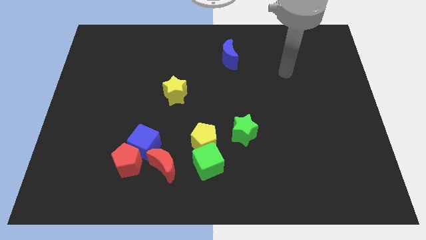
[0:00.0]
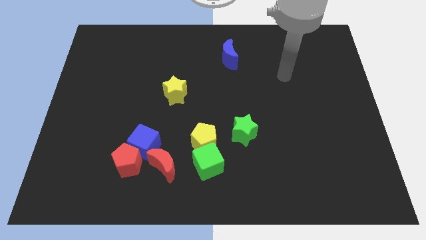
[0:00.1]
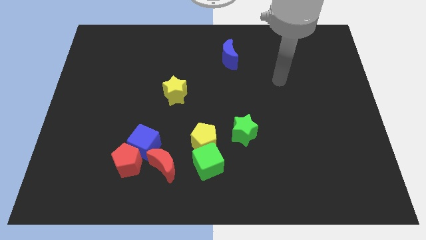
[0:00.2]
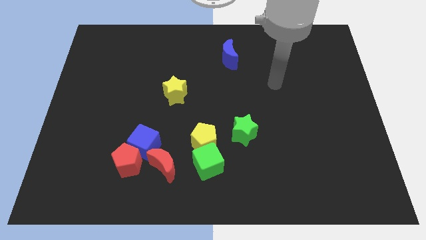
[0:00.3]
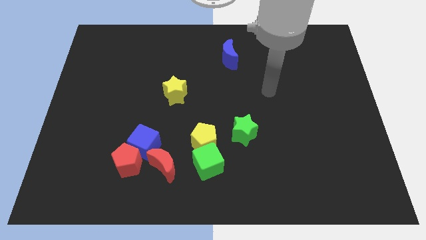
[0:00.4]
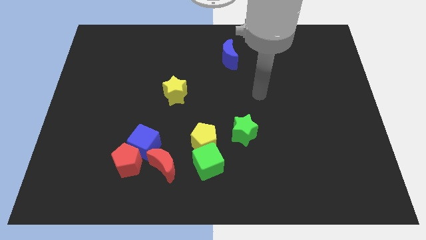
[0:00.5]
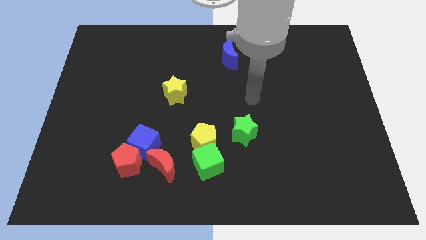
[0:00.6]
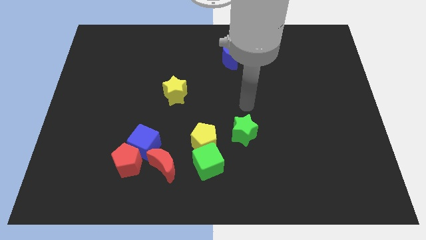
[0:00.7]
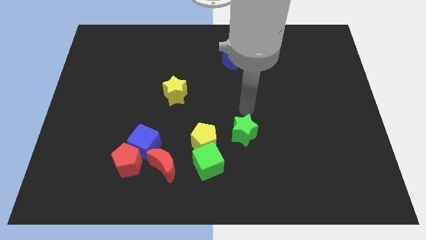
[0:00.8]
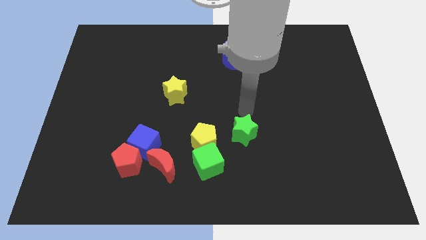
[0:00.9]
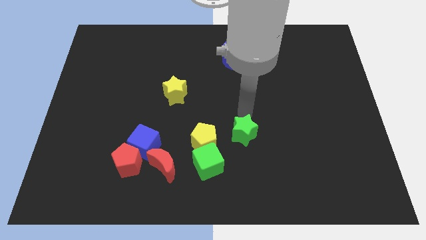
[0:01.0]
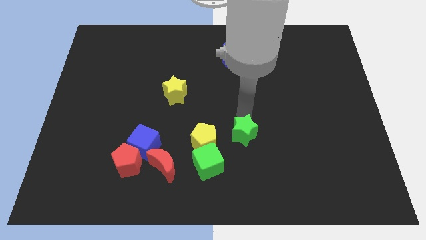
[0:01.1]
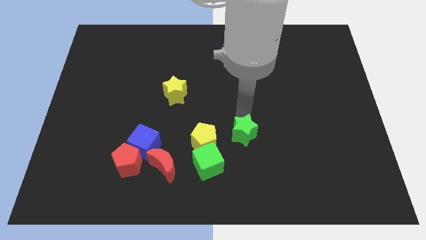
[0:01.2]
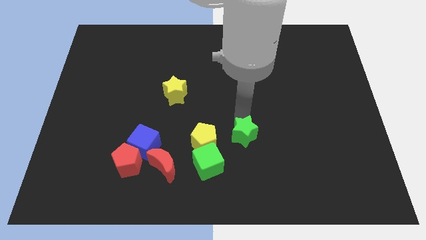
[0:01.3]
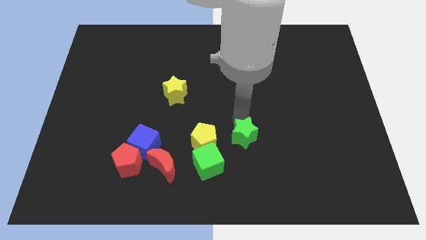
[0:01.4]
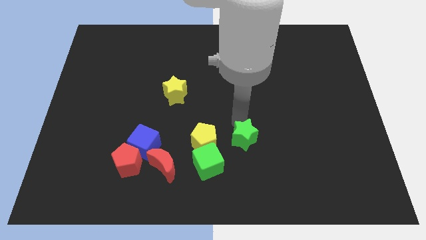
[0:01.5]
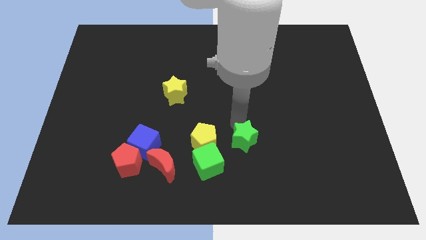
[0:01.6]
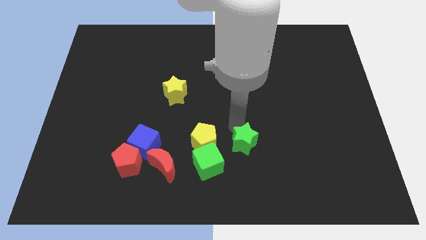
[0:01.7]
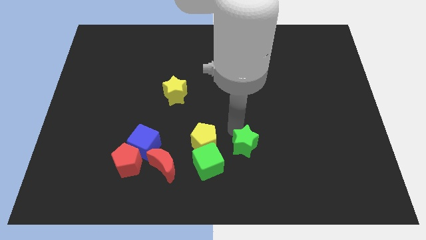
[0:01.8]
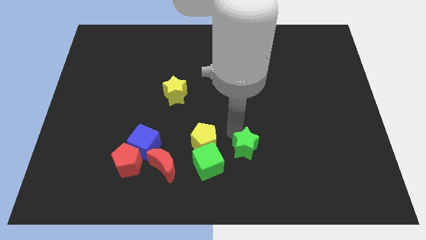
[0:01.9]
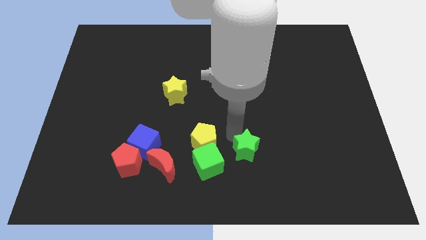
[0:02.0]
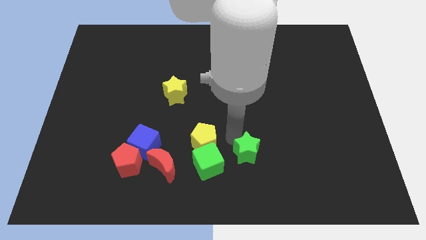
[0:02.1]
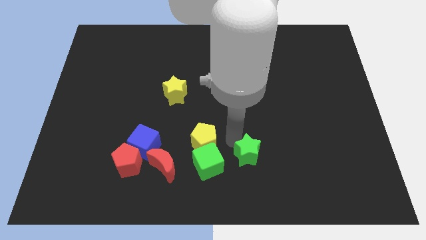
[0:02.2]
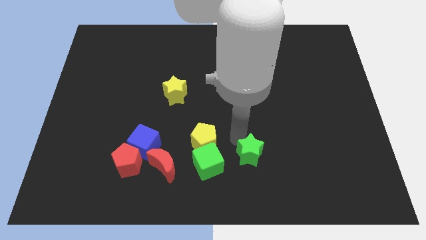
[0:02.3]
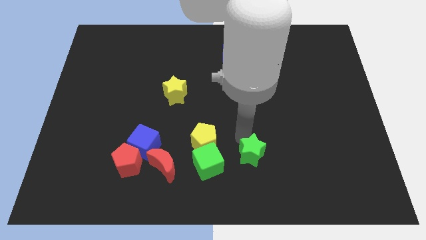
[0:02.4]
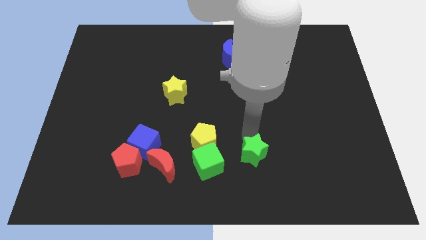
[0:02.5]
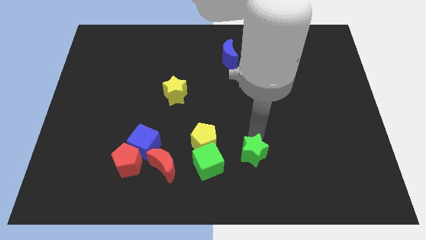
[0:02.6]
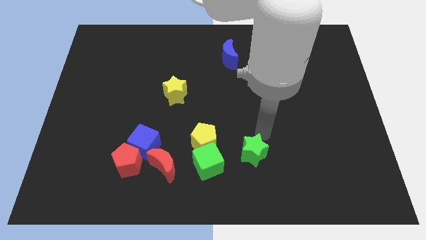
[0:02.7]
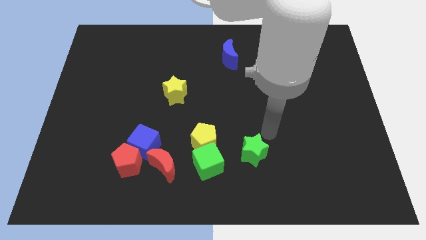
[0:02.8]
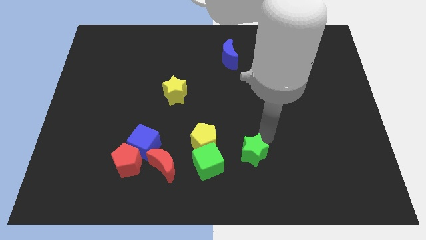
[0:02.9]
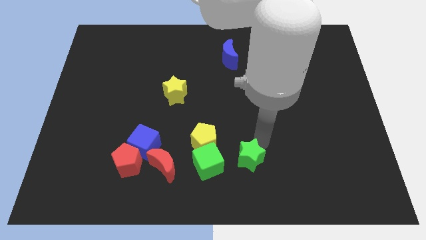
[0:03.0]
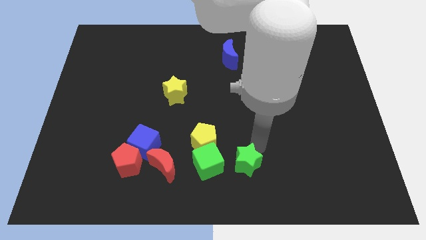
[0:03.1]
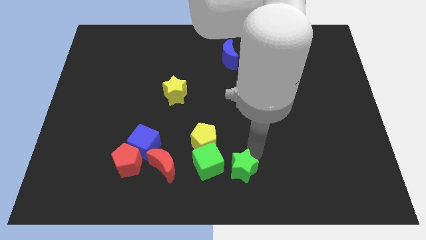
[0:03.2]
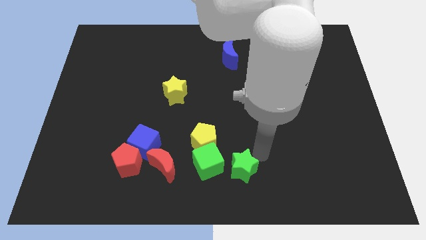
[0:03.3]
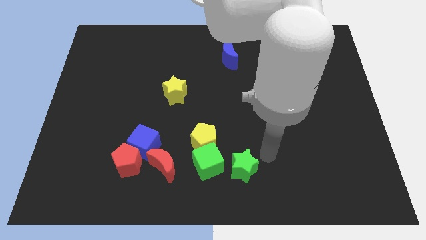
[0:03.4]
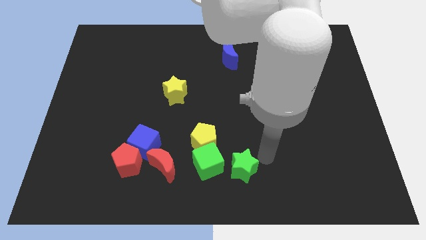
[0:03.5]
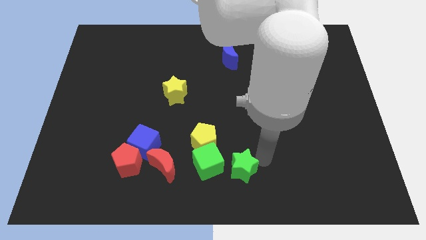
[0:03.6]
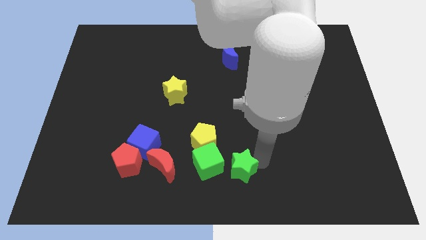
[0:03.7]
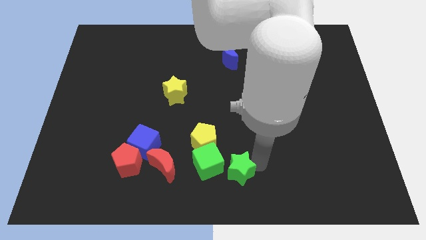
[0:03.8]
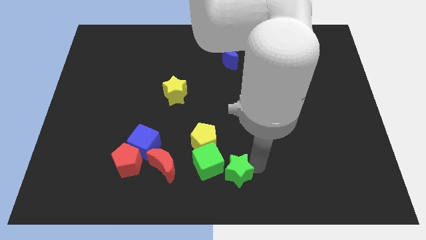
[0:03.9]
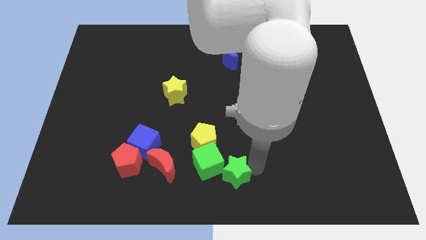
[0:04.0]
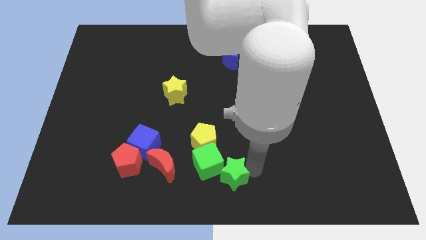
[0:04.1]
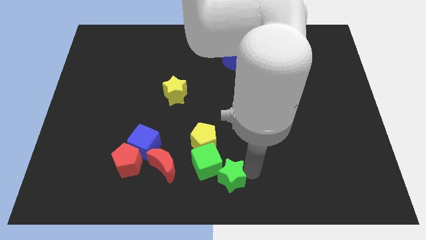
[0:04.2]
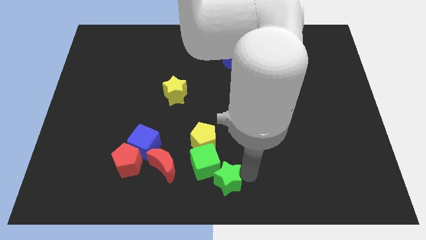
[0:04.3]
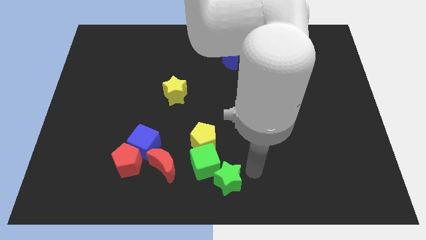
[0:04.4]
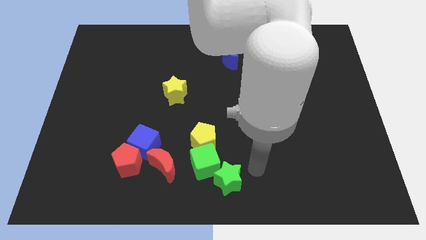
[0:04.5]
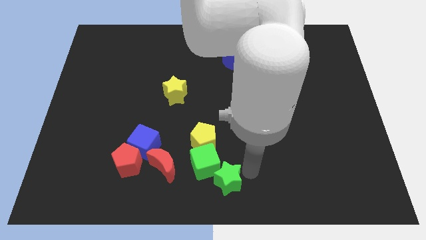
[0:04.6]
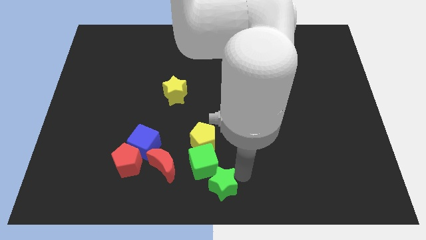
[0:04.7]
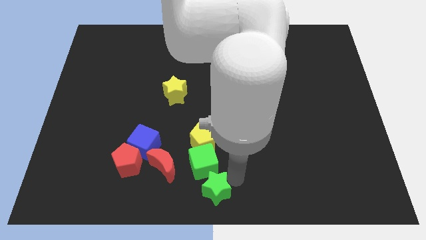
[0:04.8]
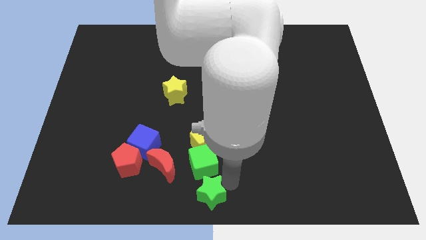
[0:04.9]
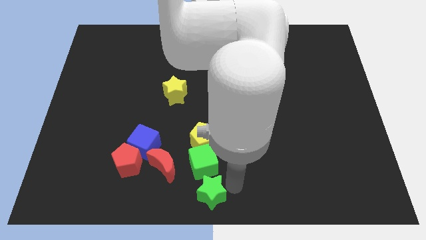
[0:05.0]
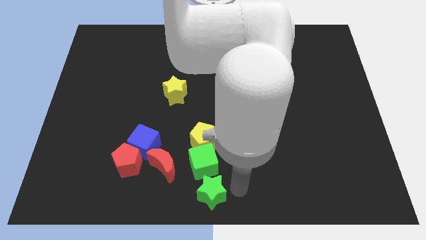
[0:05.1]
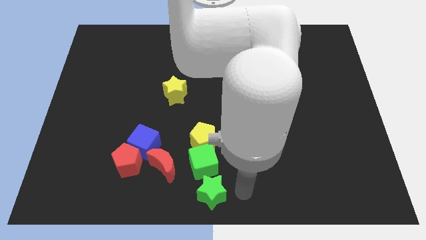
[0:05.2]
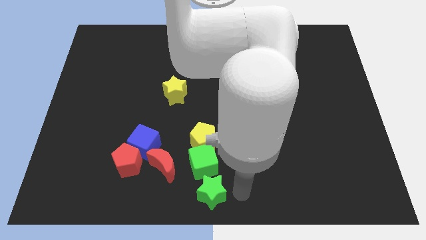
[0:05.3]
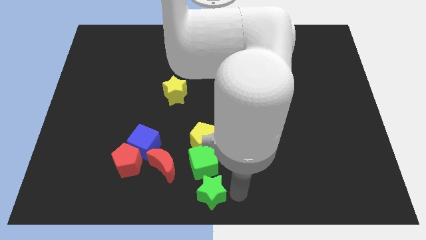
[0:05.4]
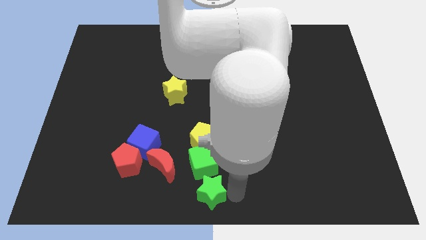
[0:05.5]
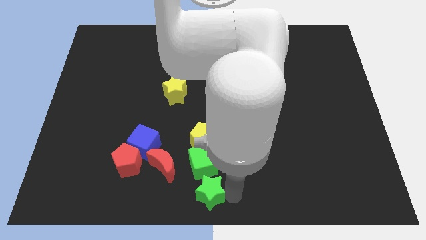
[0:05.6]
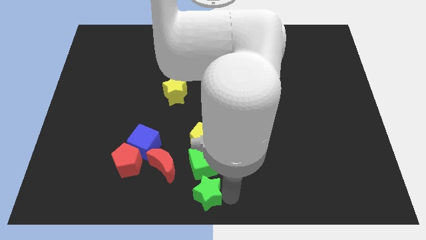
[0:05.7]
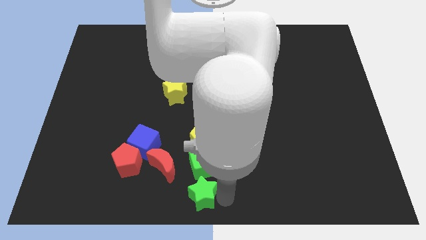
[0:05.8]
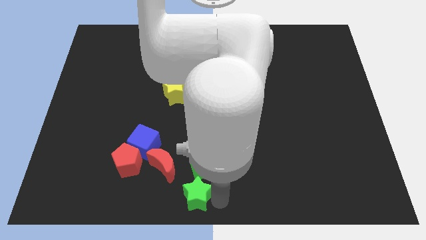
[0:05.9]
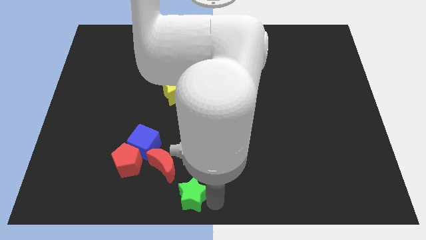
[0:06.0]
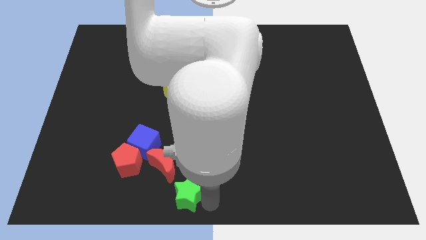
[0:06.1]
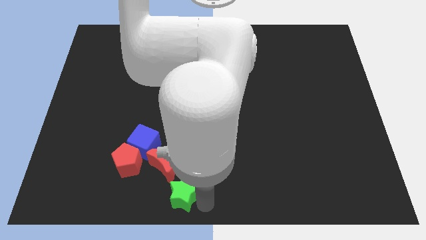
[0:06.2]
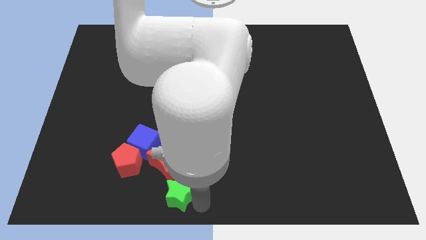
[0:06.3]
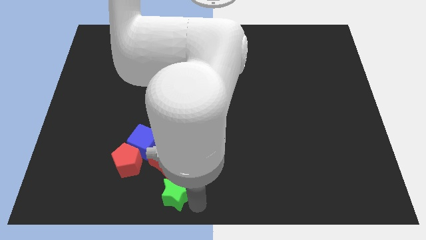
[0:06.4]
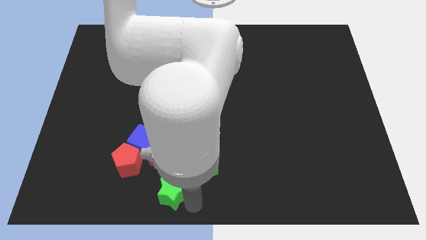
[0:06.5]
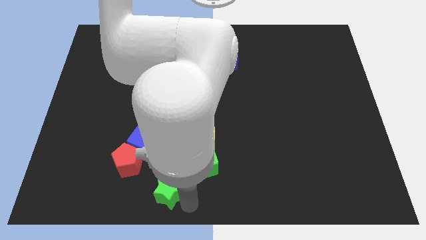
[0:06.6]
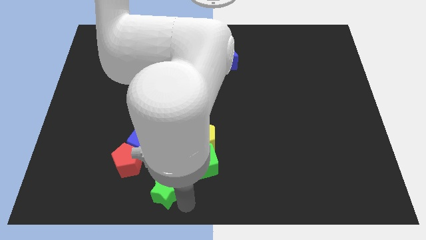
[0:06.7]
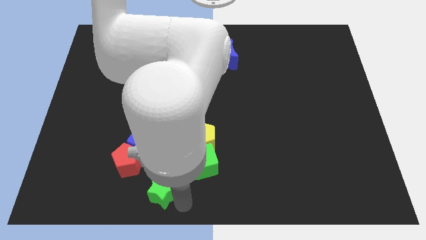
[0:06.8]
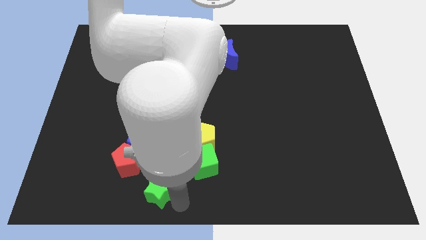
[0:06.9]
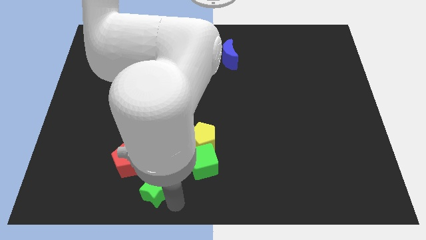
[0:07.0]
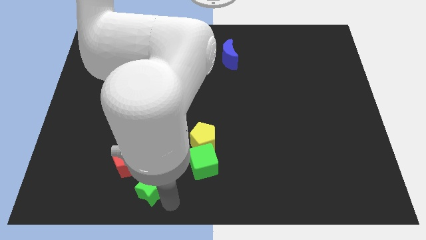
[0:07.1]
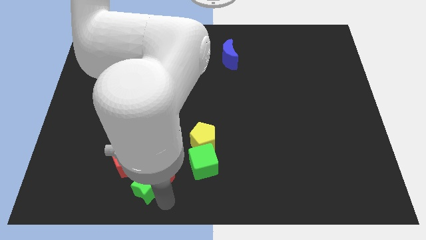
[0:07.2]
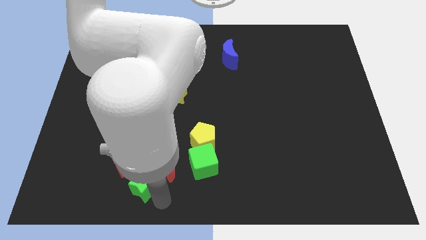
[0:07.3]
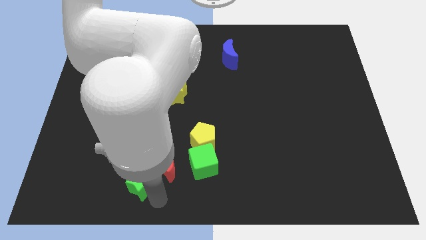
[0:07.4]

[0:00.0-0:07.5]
put the green star to the red pentagon

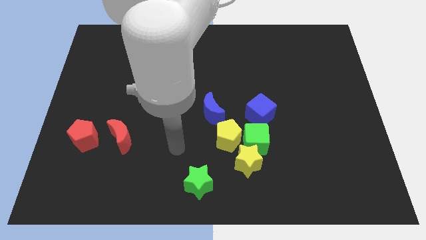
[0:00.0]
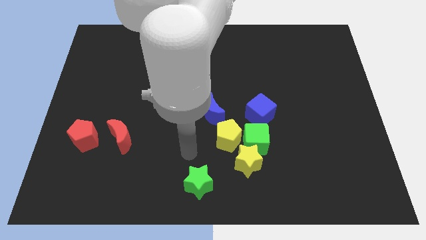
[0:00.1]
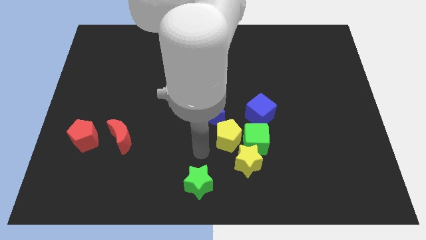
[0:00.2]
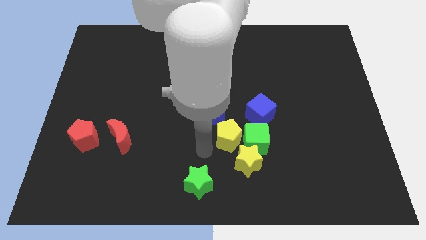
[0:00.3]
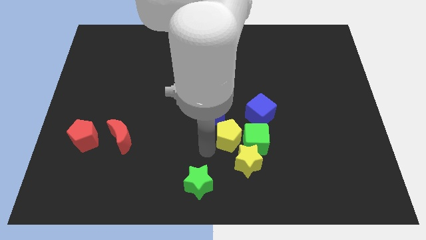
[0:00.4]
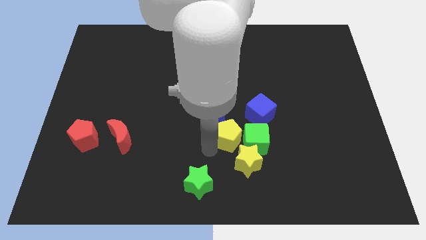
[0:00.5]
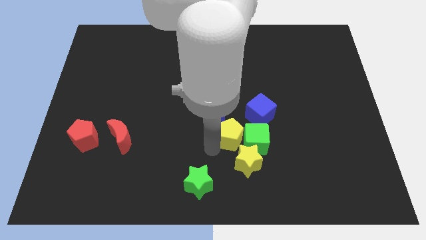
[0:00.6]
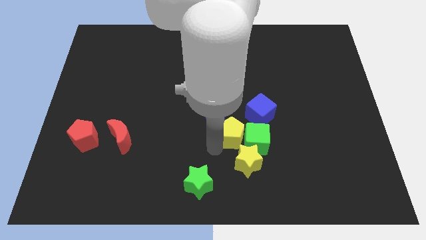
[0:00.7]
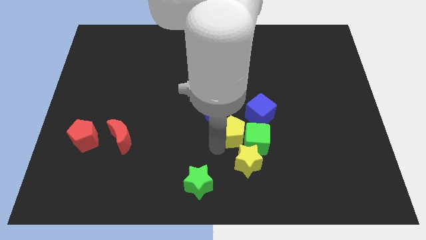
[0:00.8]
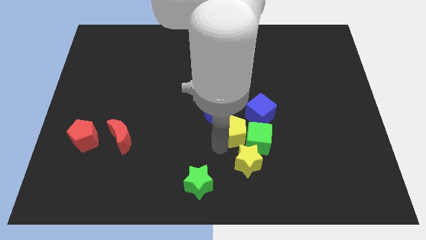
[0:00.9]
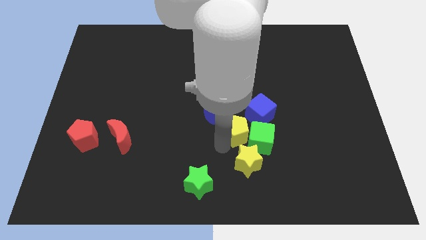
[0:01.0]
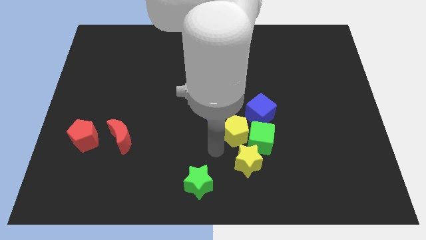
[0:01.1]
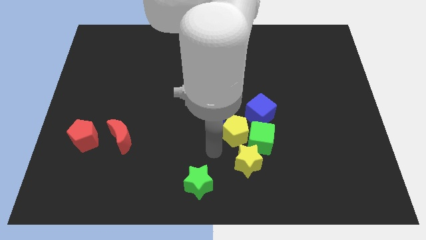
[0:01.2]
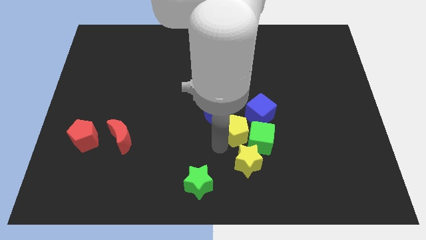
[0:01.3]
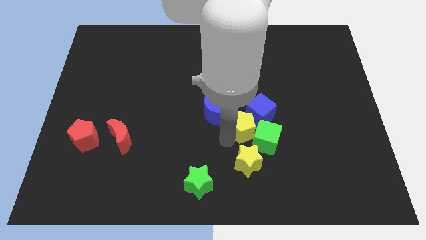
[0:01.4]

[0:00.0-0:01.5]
push the yellow pentagon to the blue cube
